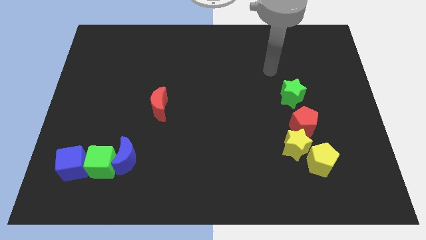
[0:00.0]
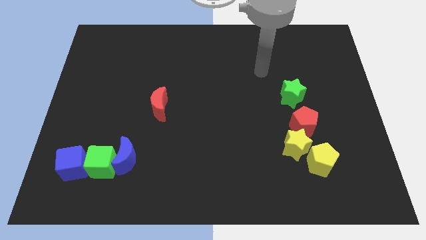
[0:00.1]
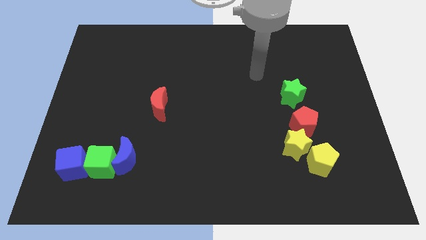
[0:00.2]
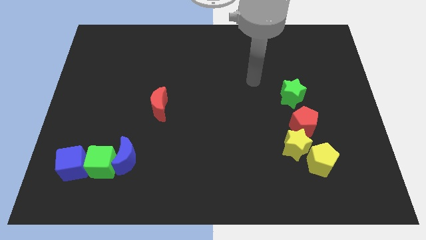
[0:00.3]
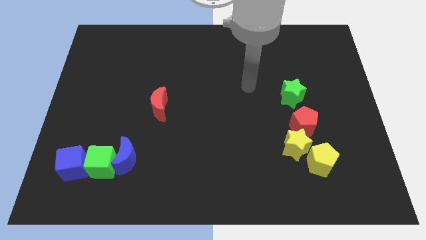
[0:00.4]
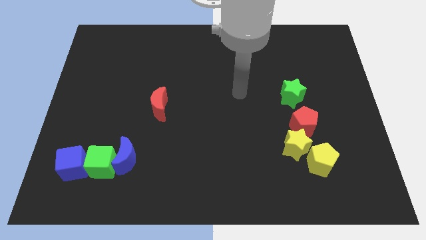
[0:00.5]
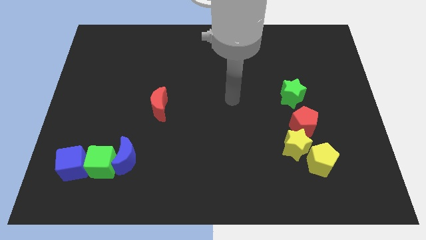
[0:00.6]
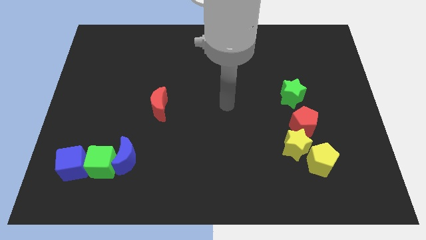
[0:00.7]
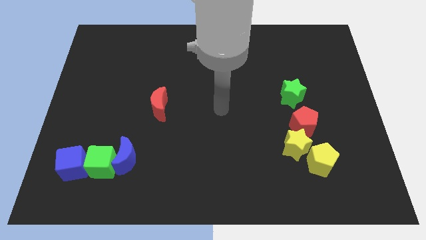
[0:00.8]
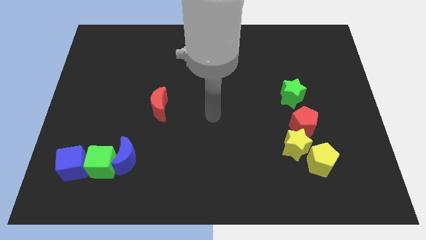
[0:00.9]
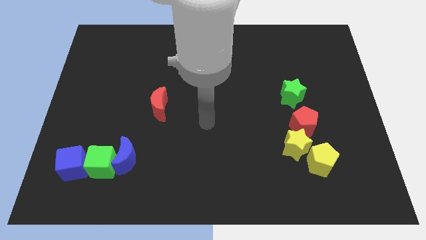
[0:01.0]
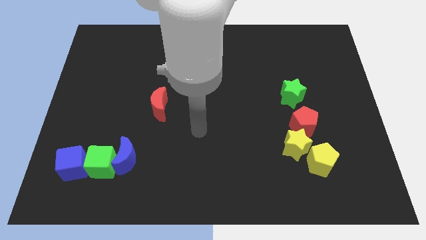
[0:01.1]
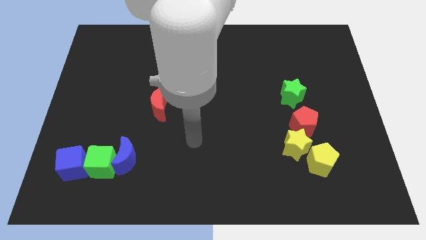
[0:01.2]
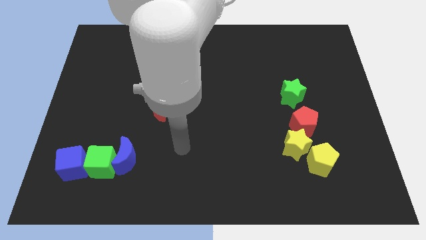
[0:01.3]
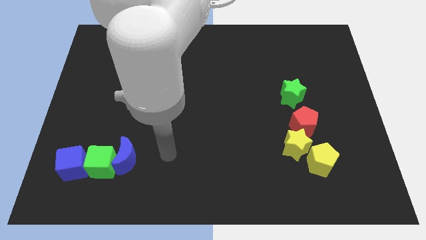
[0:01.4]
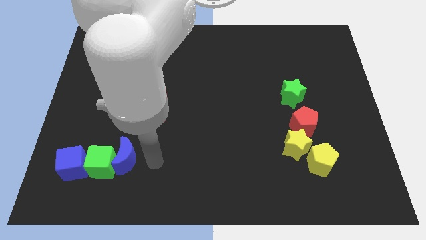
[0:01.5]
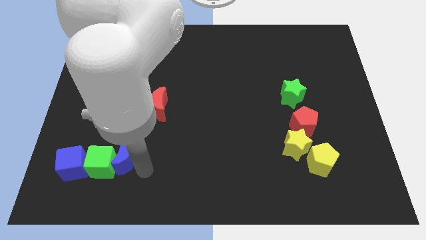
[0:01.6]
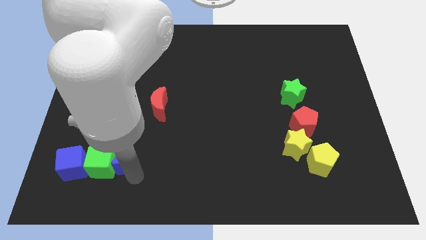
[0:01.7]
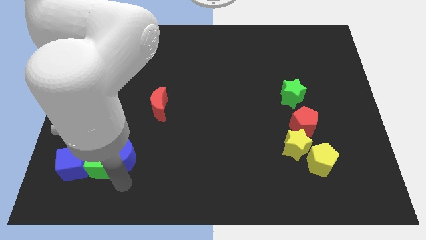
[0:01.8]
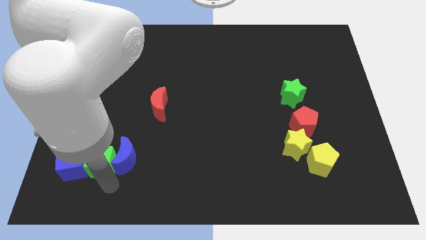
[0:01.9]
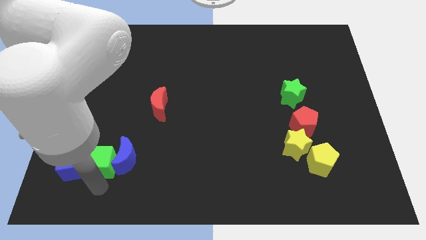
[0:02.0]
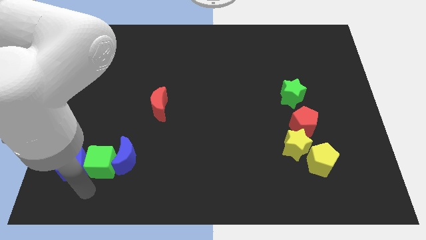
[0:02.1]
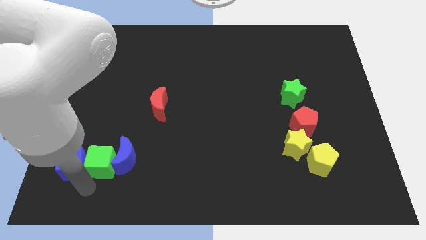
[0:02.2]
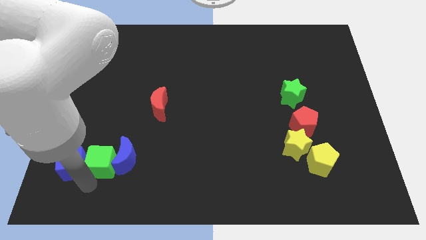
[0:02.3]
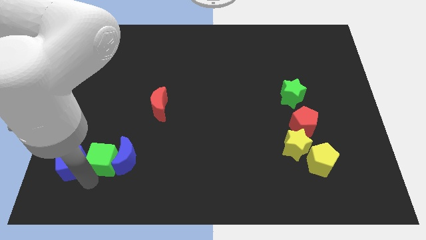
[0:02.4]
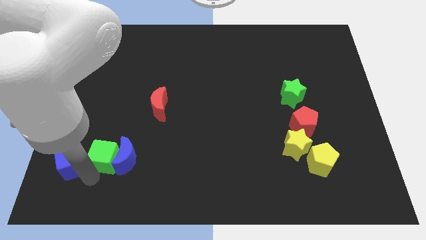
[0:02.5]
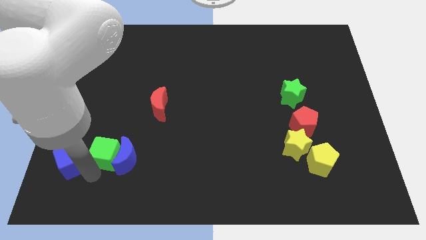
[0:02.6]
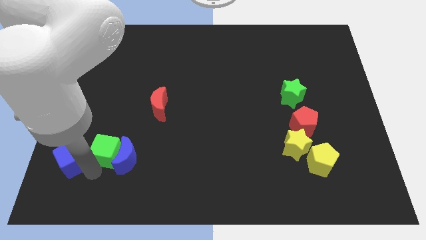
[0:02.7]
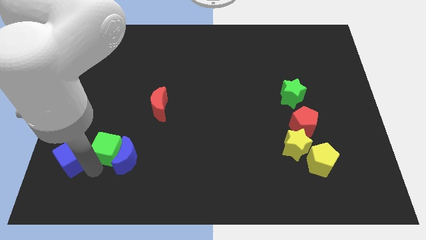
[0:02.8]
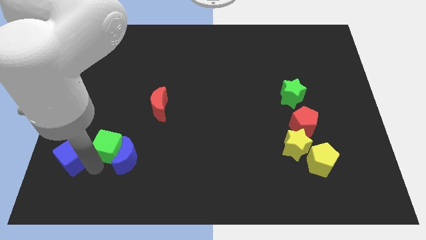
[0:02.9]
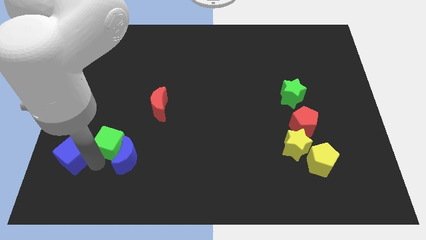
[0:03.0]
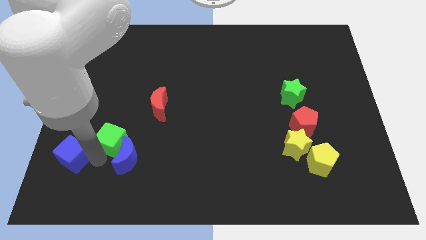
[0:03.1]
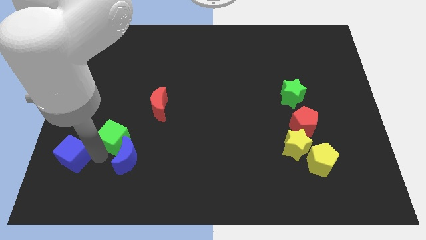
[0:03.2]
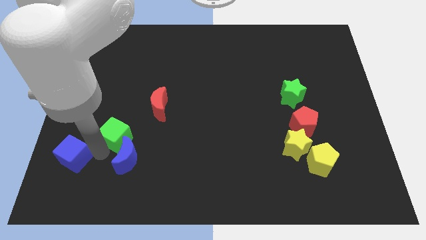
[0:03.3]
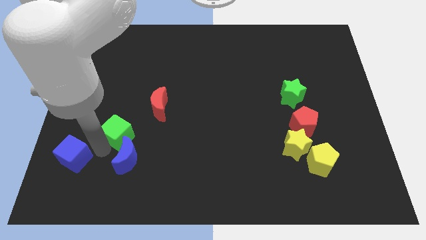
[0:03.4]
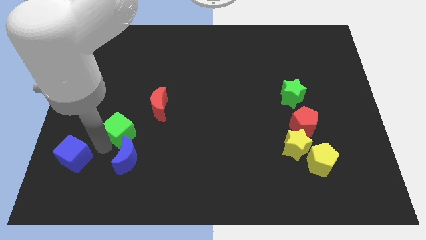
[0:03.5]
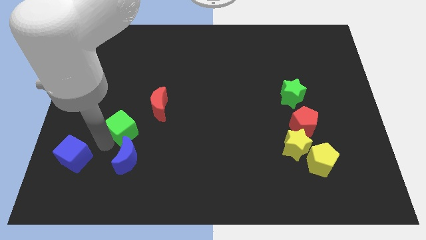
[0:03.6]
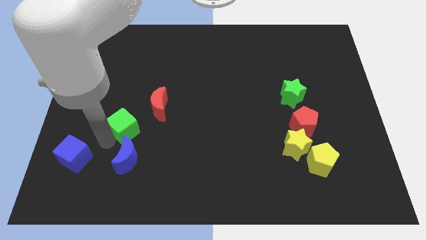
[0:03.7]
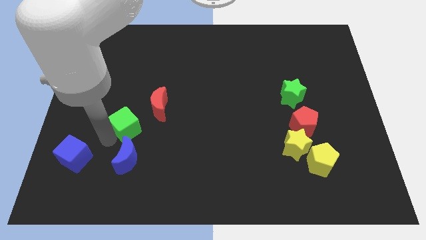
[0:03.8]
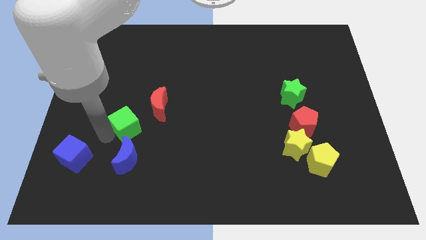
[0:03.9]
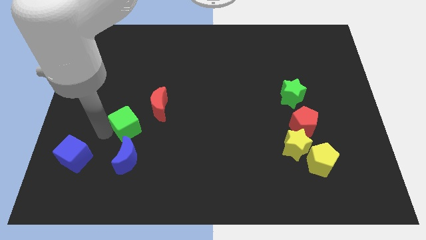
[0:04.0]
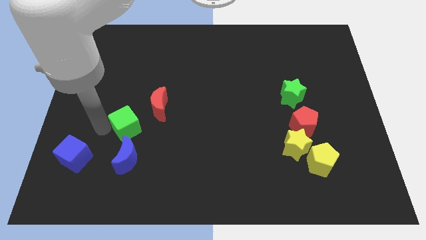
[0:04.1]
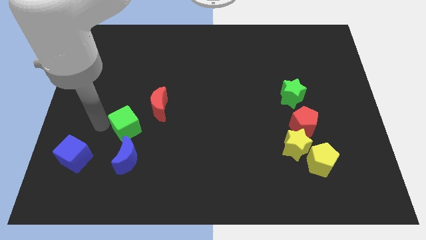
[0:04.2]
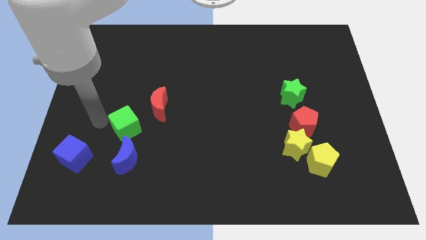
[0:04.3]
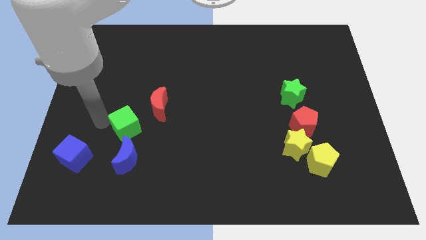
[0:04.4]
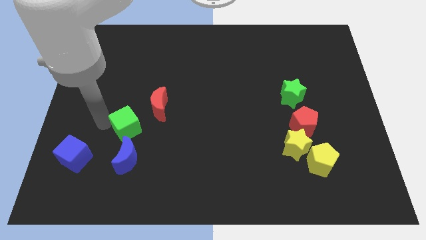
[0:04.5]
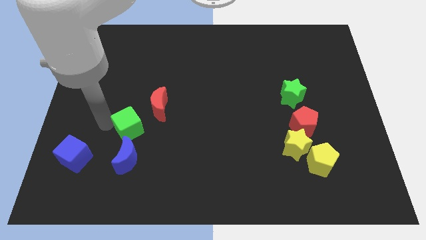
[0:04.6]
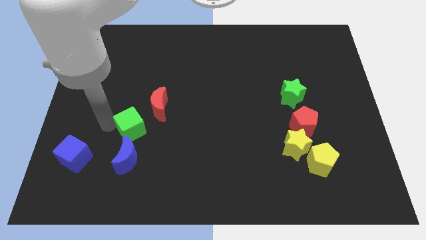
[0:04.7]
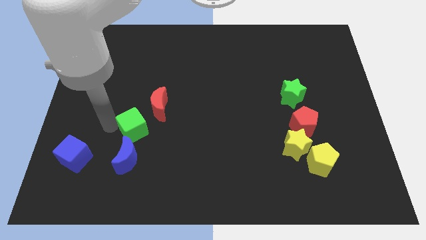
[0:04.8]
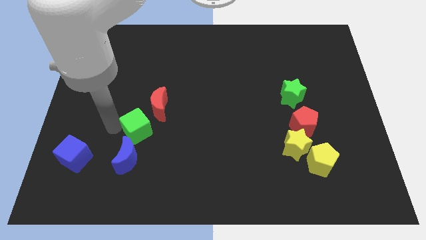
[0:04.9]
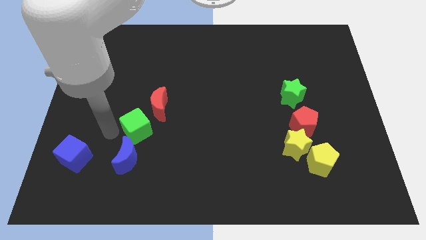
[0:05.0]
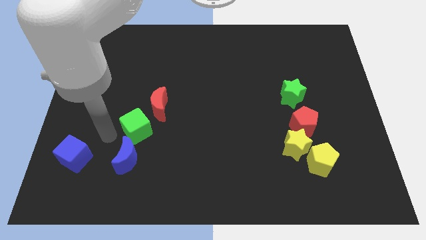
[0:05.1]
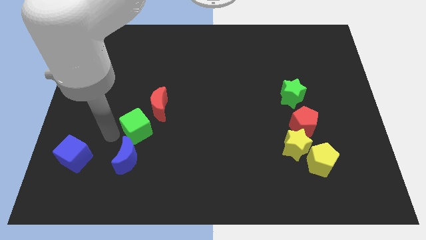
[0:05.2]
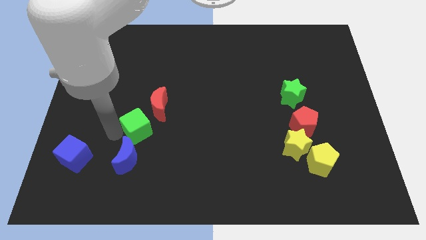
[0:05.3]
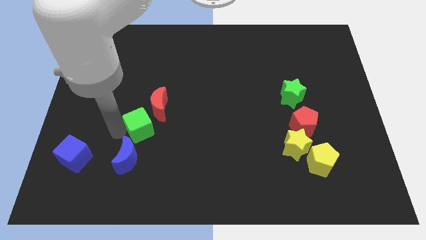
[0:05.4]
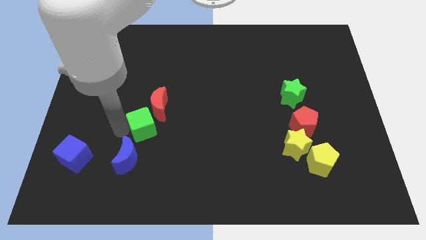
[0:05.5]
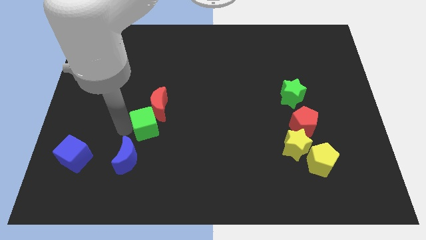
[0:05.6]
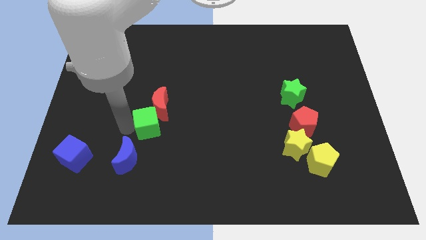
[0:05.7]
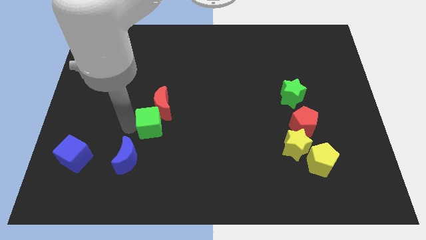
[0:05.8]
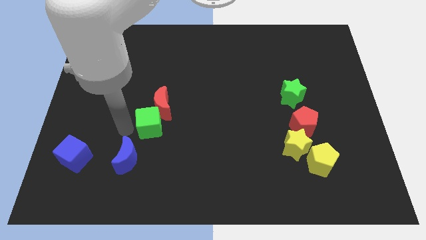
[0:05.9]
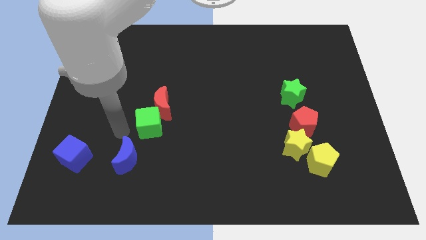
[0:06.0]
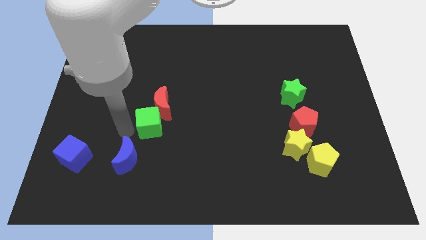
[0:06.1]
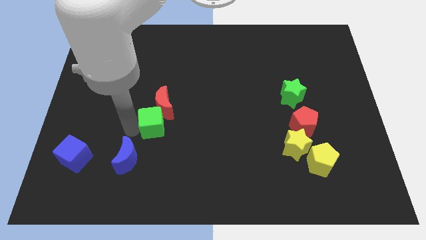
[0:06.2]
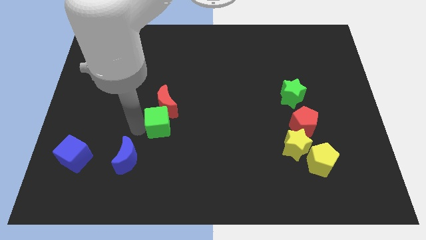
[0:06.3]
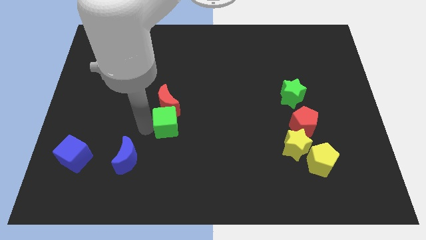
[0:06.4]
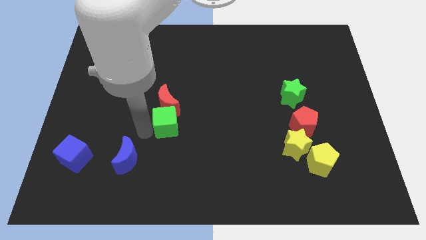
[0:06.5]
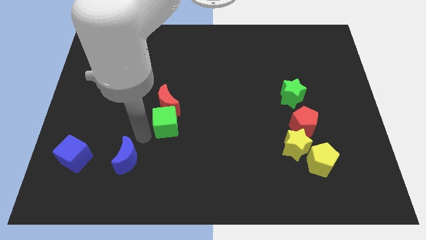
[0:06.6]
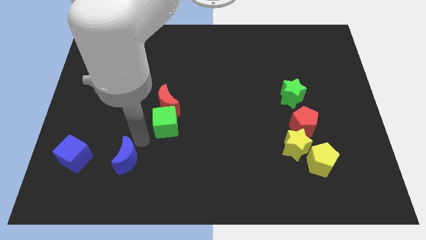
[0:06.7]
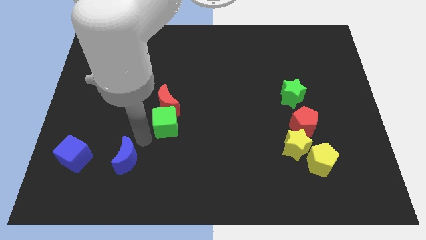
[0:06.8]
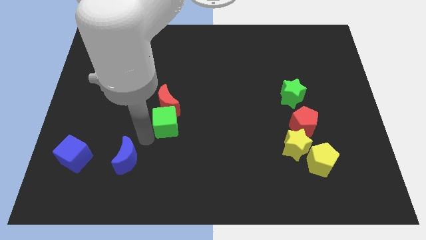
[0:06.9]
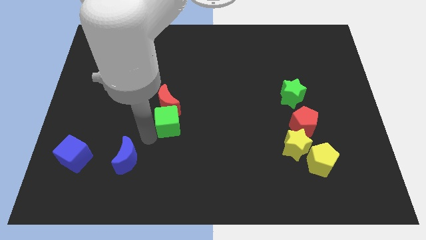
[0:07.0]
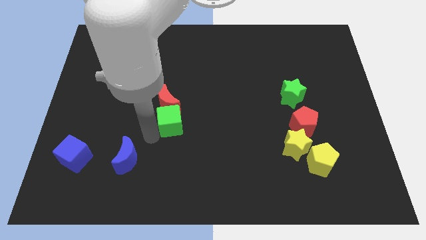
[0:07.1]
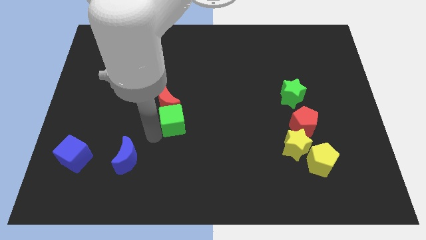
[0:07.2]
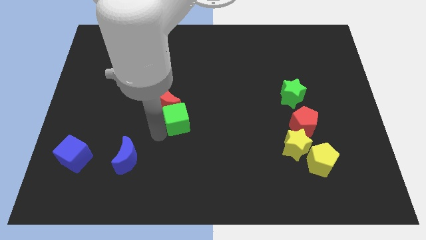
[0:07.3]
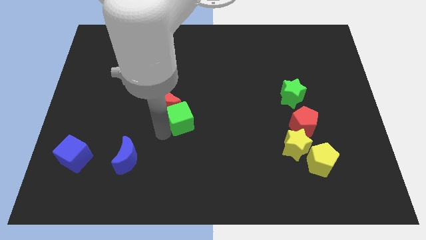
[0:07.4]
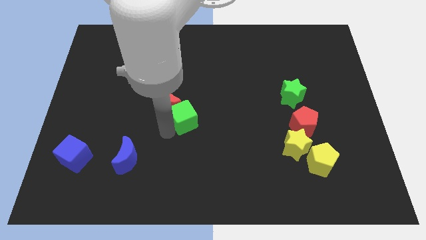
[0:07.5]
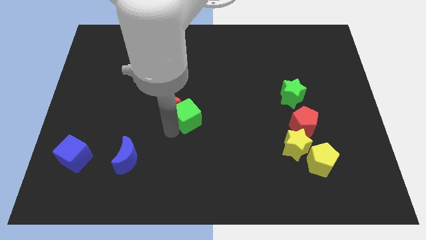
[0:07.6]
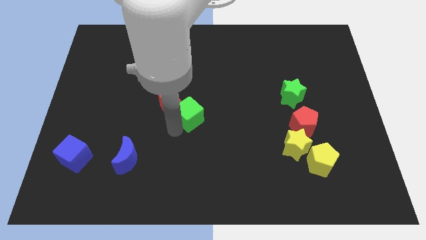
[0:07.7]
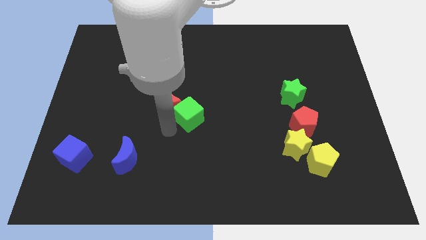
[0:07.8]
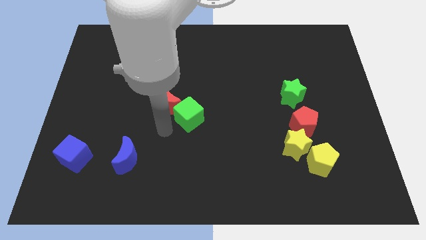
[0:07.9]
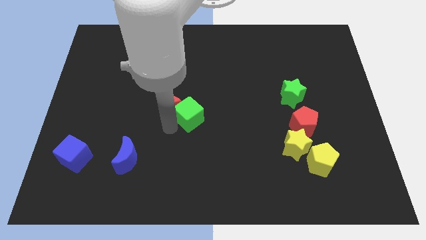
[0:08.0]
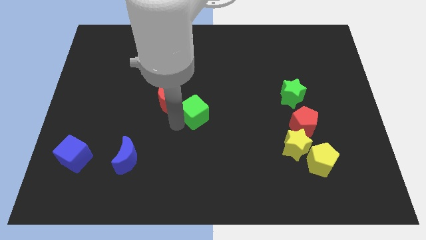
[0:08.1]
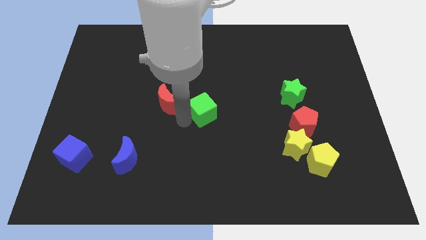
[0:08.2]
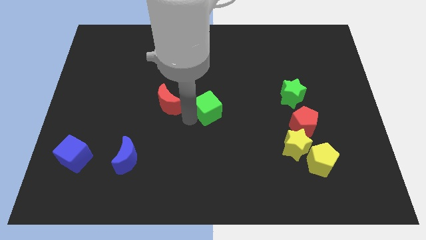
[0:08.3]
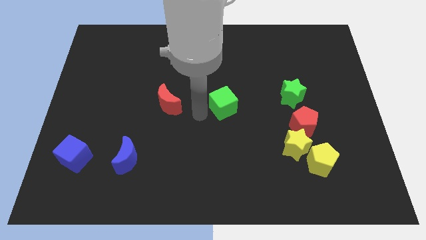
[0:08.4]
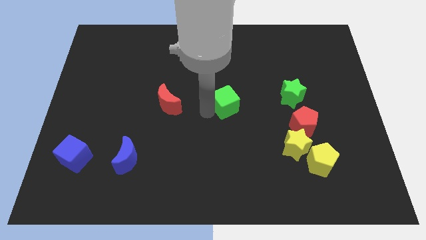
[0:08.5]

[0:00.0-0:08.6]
push the green cube to the left side of the green star
